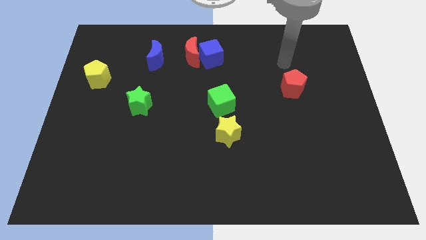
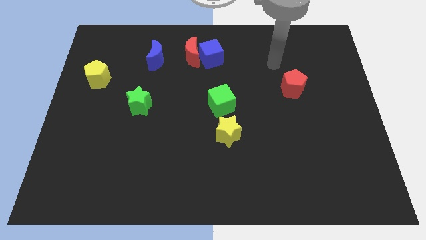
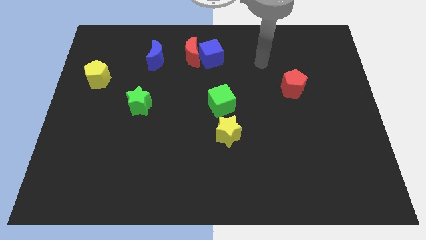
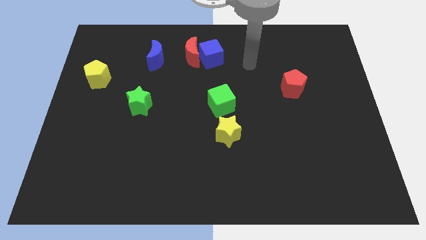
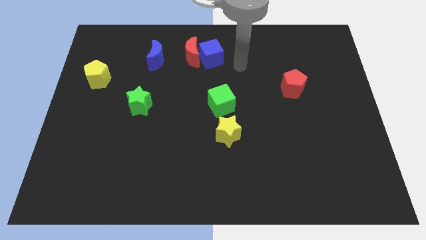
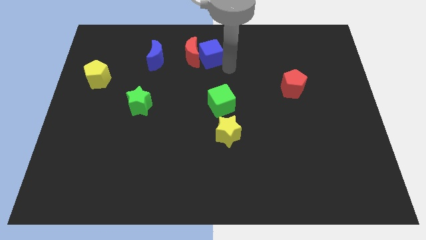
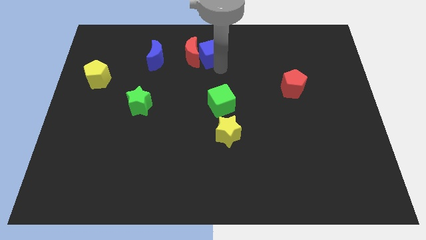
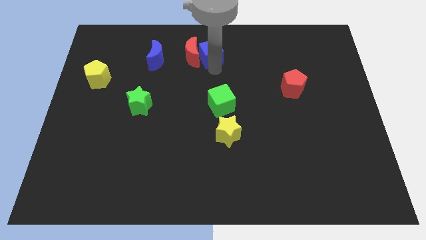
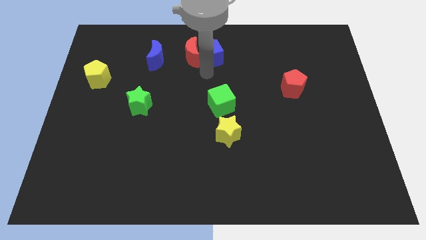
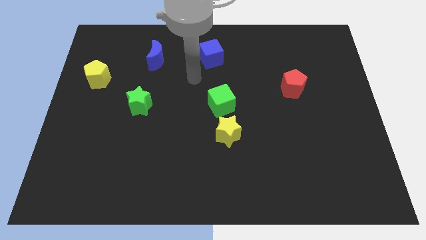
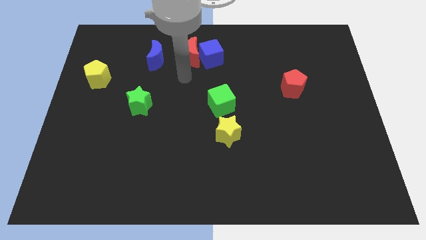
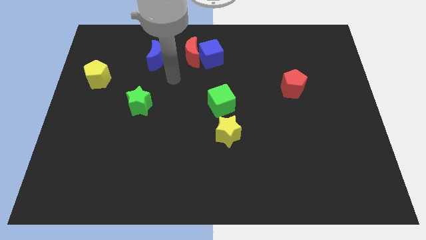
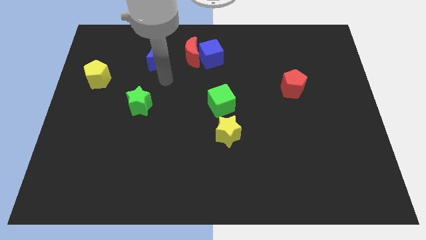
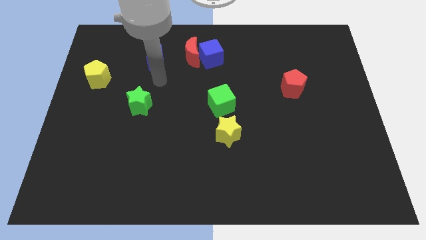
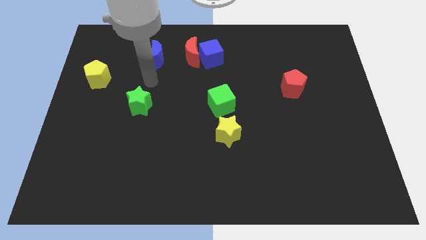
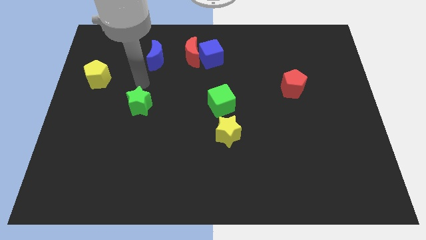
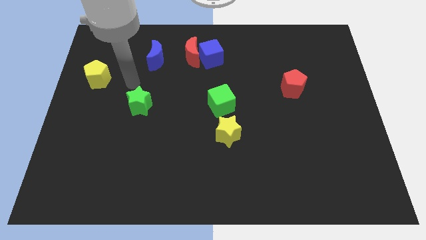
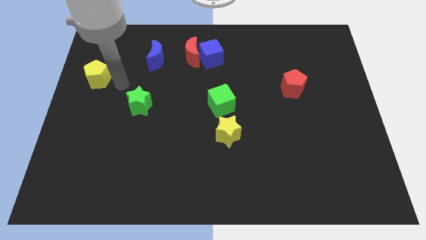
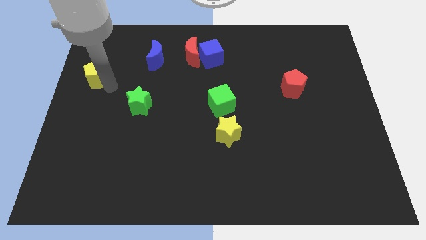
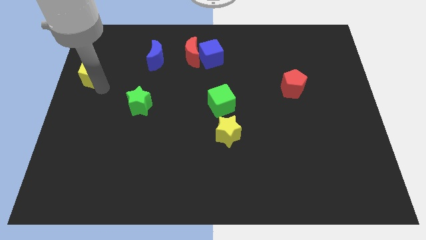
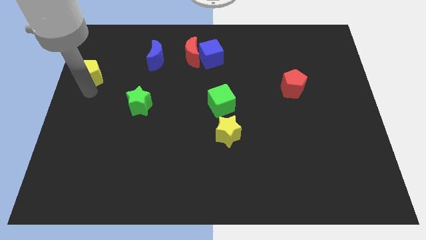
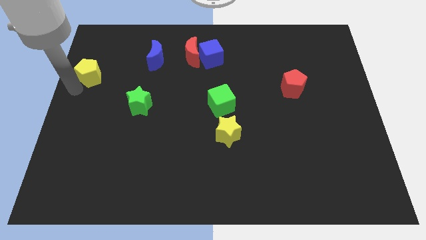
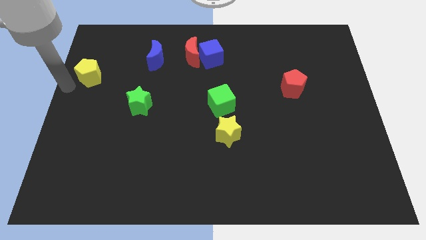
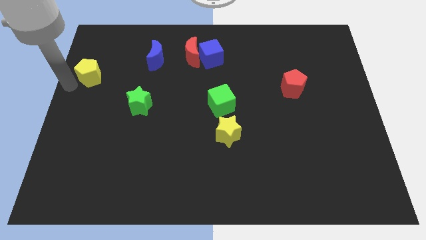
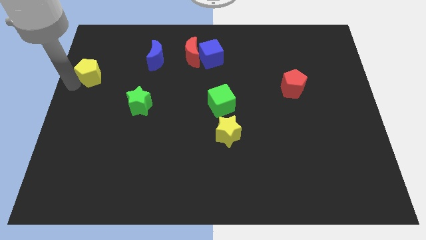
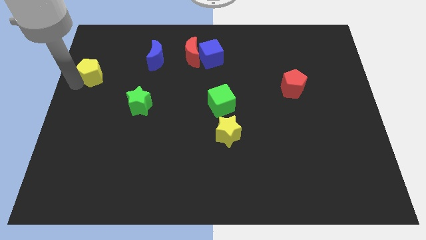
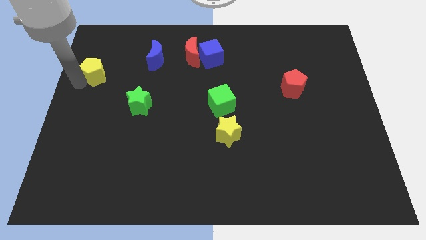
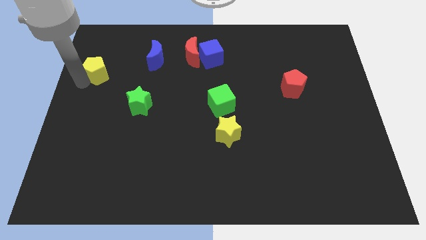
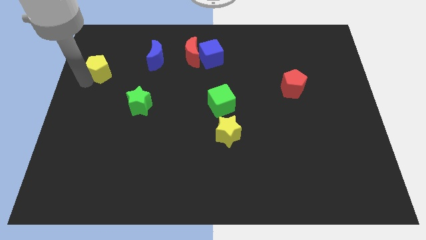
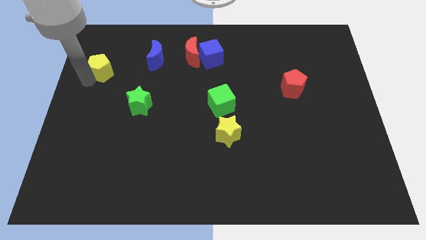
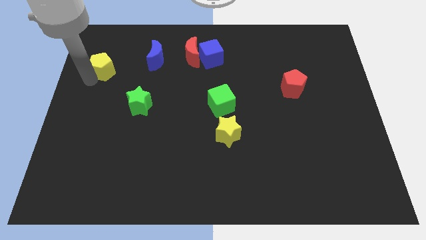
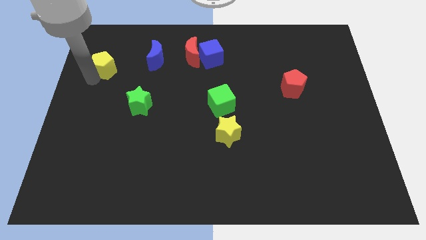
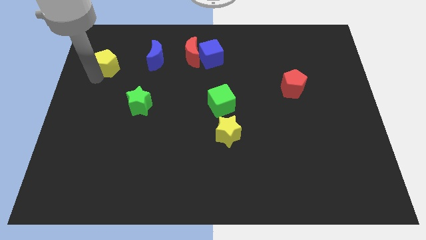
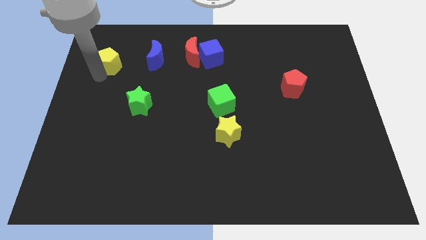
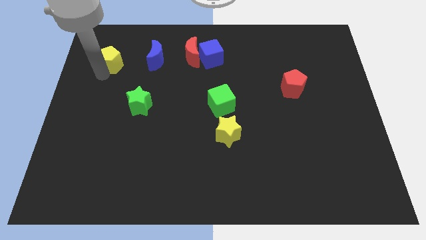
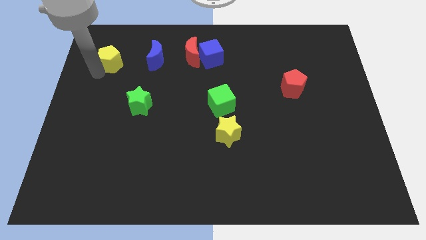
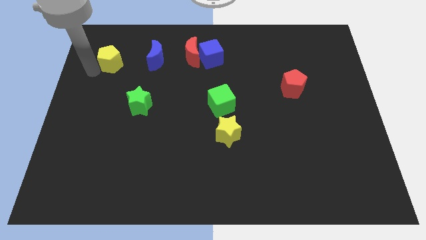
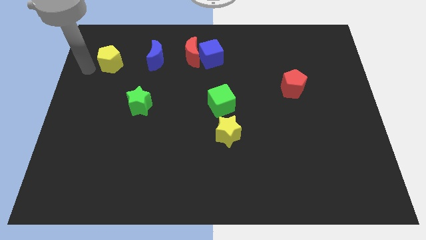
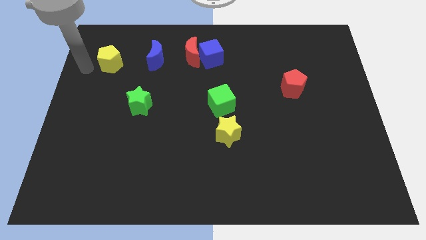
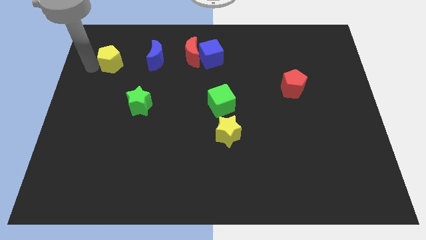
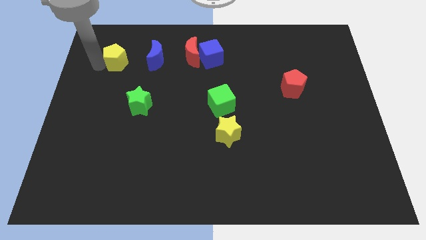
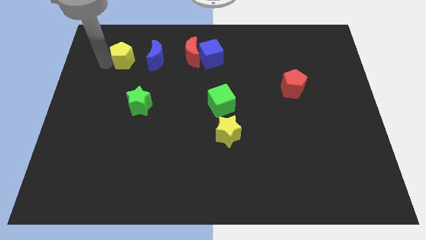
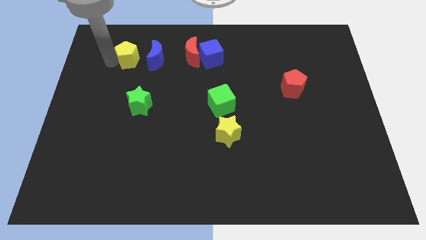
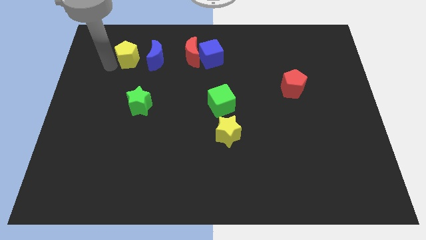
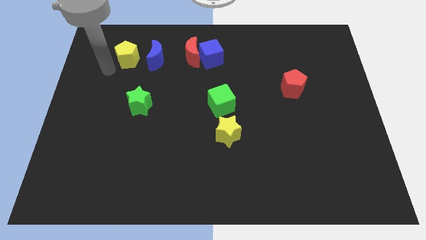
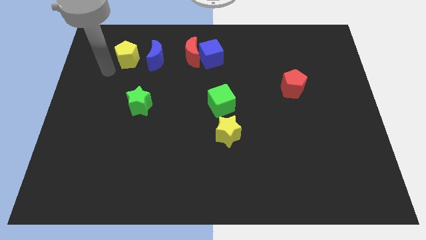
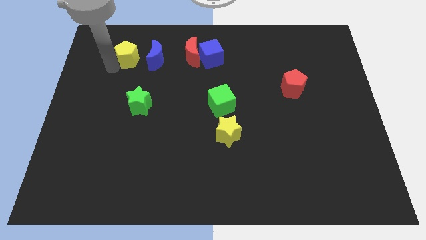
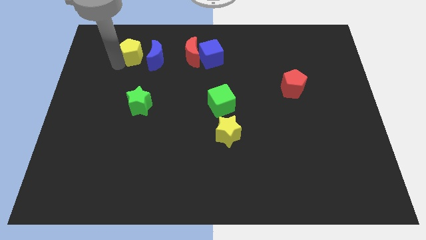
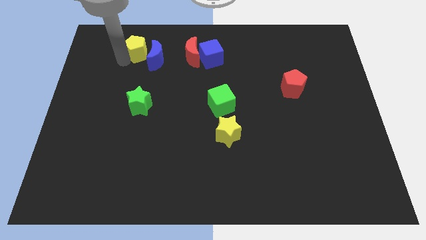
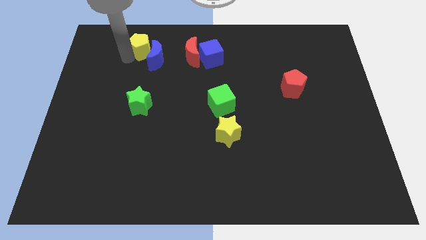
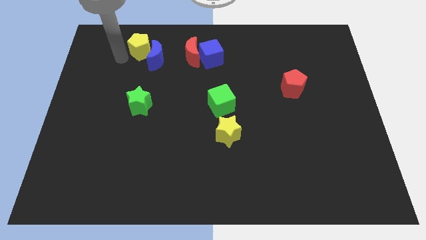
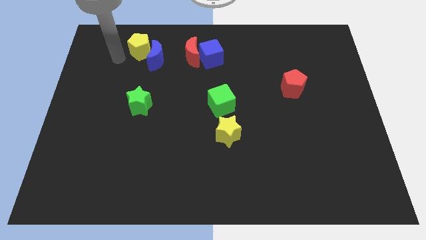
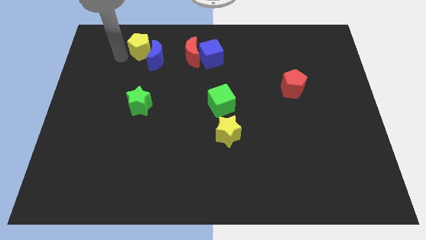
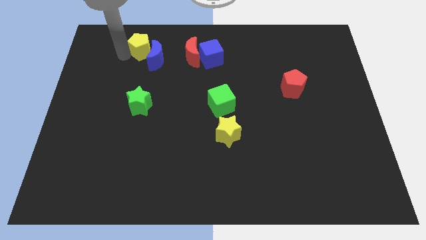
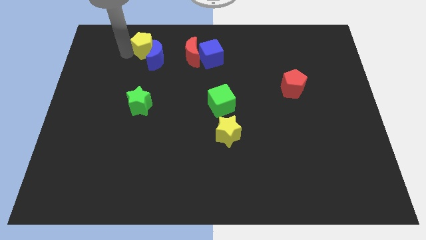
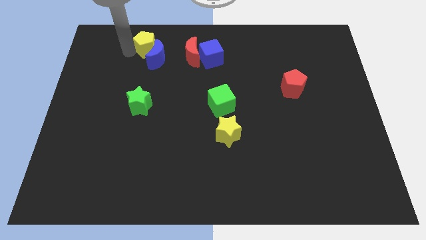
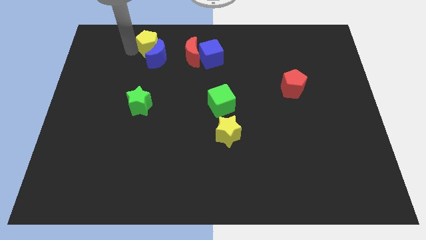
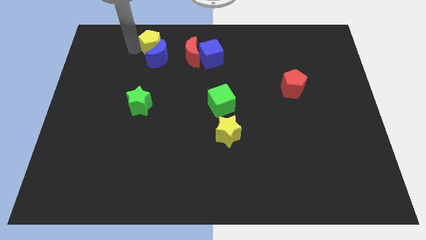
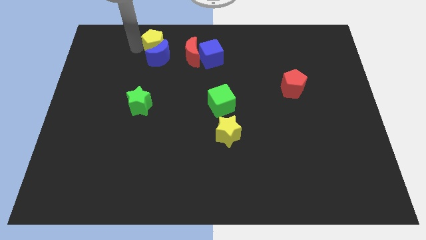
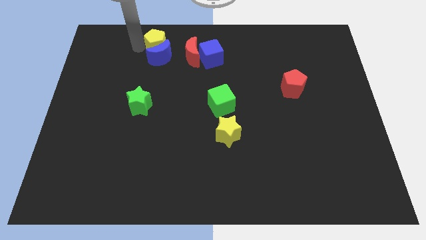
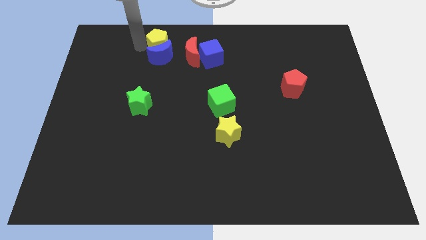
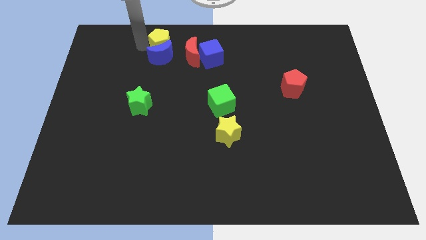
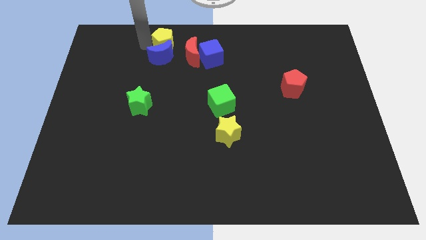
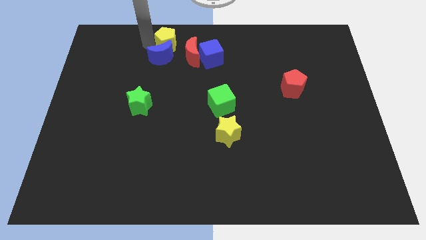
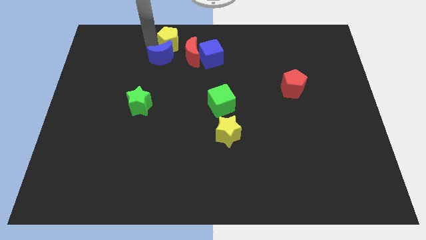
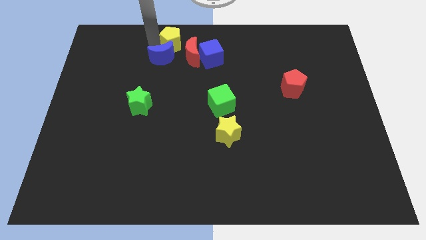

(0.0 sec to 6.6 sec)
slide the yellow pentagon to the top
